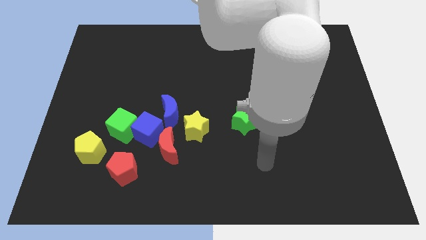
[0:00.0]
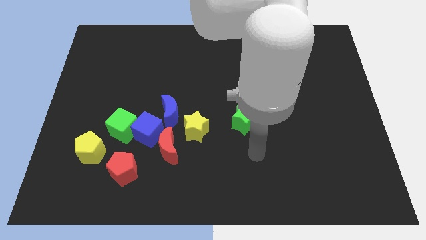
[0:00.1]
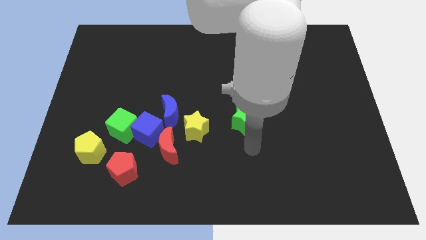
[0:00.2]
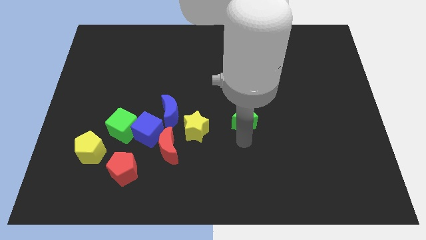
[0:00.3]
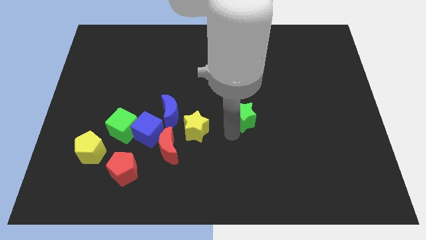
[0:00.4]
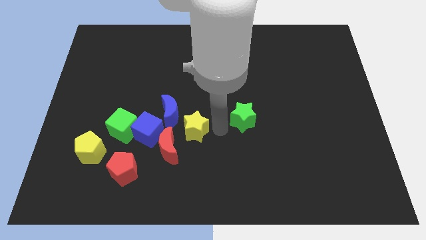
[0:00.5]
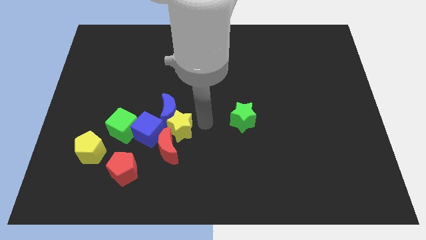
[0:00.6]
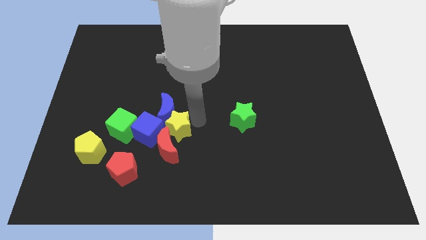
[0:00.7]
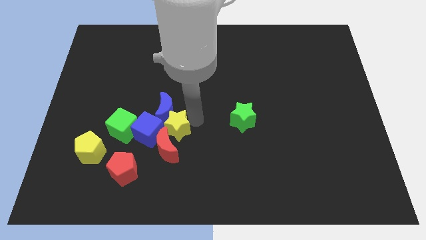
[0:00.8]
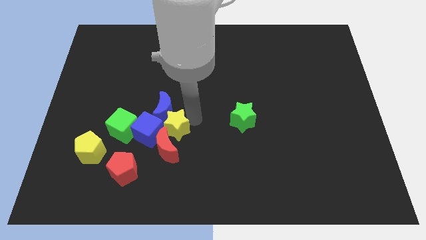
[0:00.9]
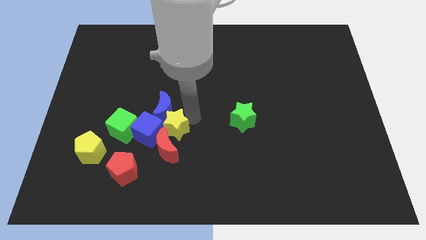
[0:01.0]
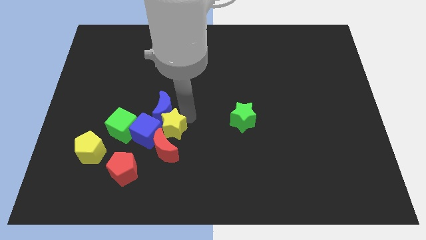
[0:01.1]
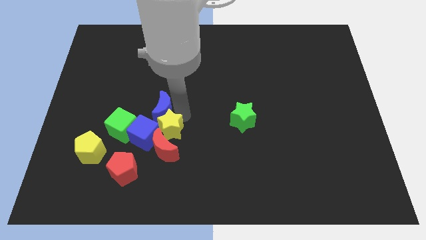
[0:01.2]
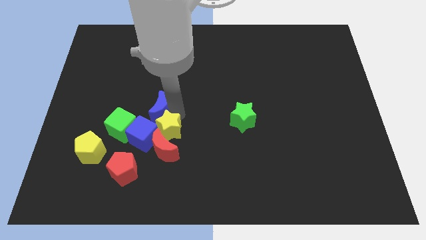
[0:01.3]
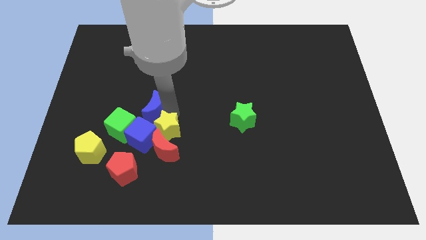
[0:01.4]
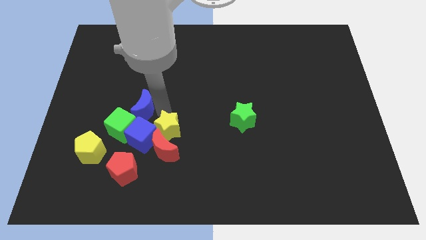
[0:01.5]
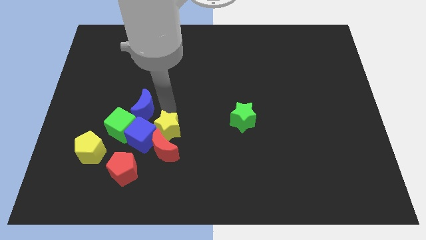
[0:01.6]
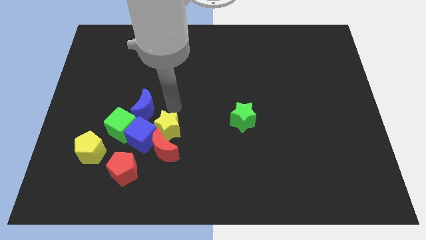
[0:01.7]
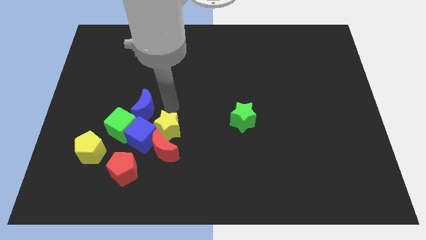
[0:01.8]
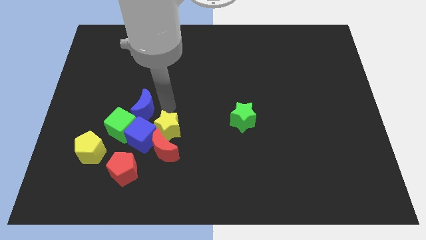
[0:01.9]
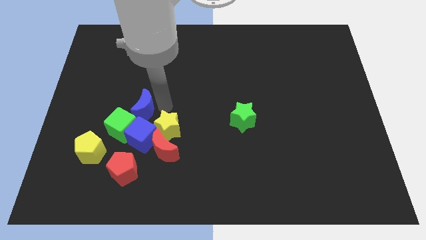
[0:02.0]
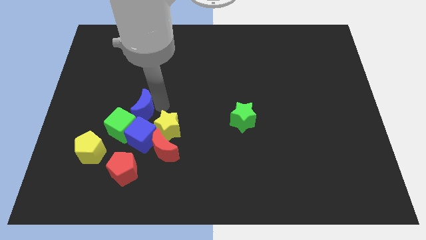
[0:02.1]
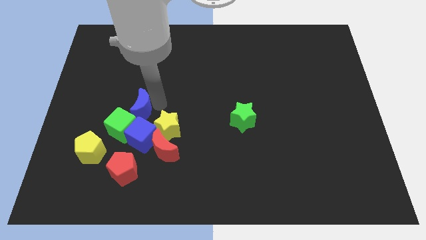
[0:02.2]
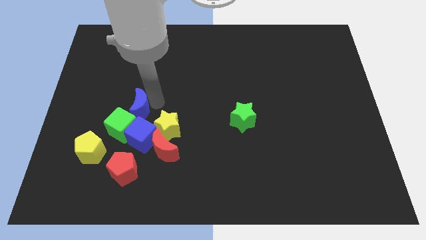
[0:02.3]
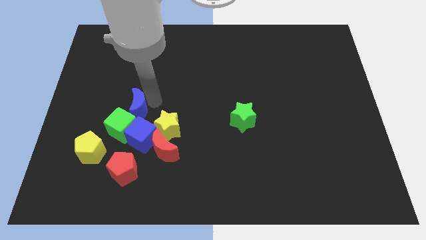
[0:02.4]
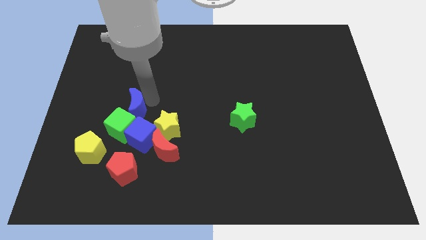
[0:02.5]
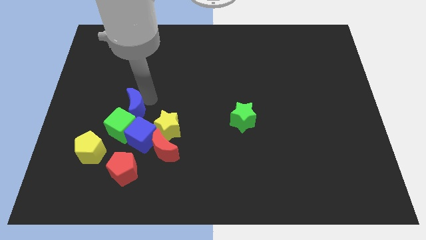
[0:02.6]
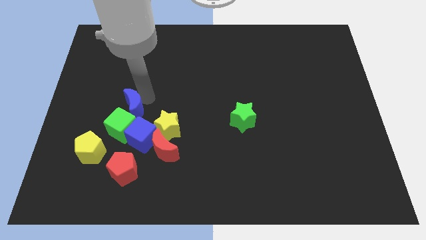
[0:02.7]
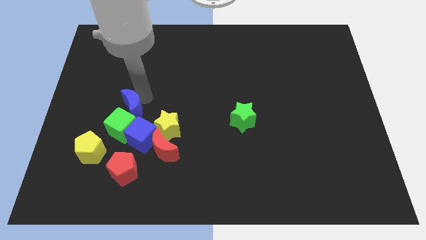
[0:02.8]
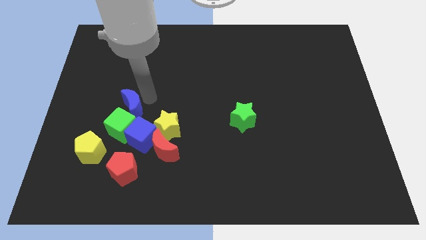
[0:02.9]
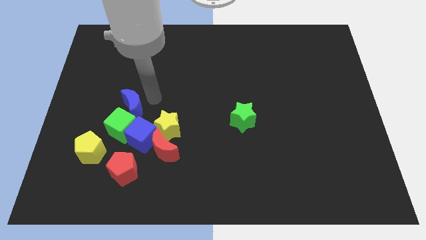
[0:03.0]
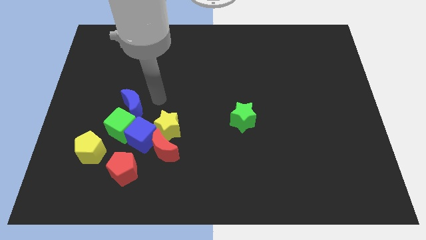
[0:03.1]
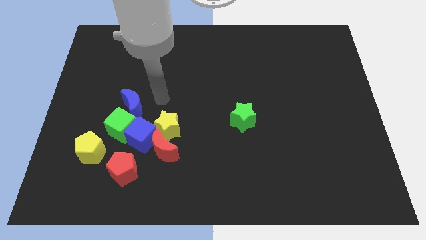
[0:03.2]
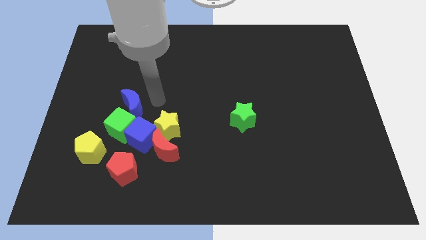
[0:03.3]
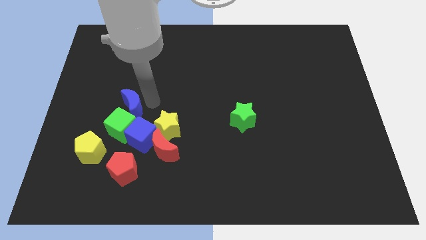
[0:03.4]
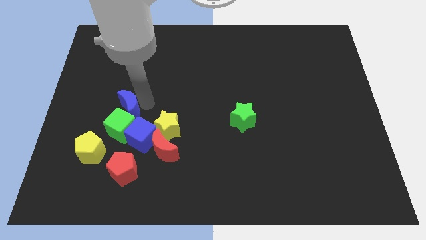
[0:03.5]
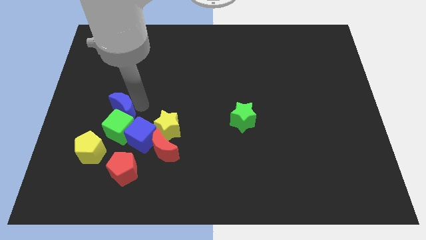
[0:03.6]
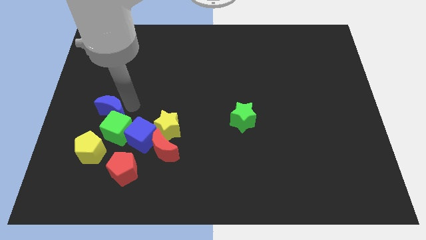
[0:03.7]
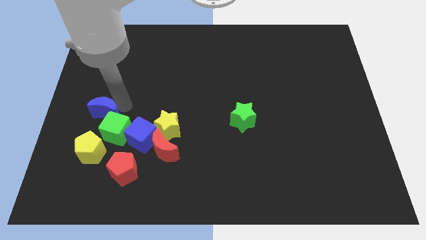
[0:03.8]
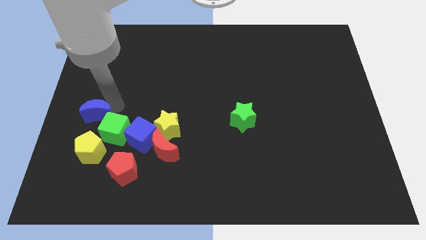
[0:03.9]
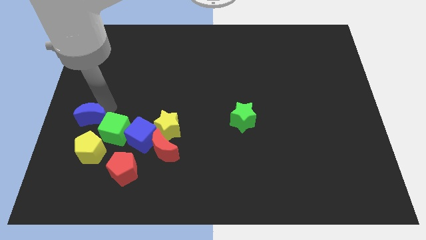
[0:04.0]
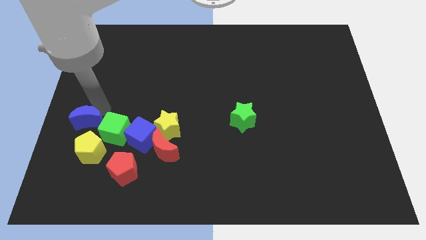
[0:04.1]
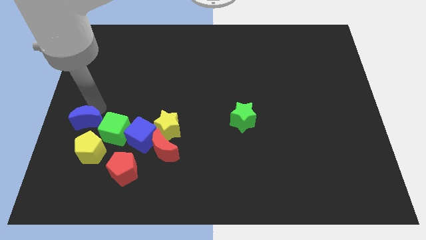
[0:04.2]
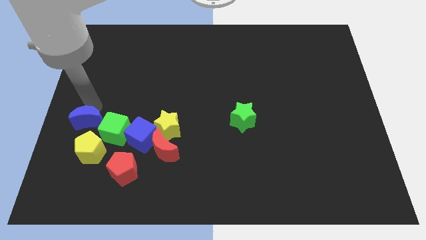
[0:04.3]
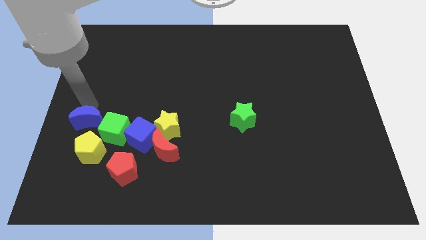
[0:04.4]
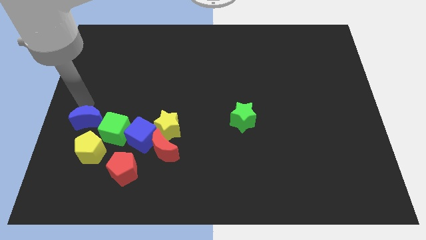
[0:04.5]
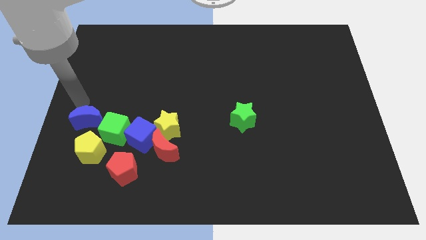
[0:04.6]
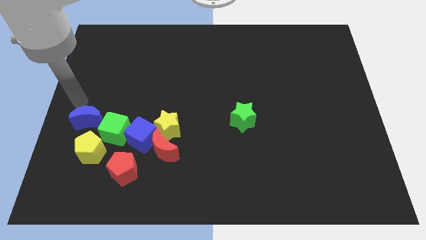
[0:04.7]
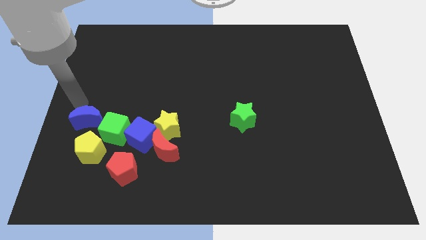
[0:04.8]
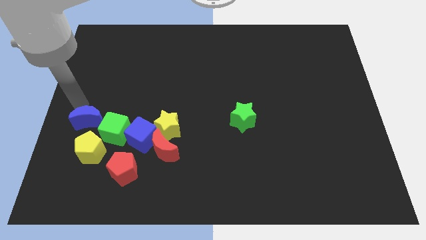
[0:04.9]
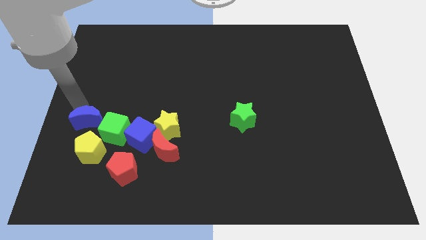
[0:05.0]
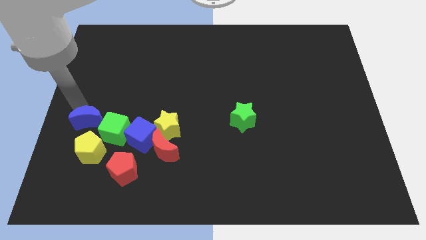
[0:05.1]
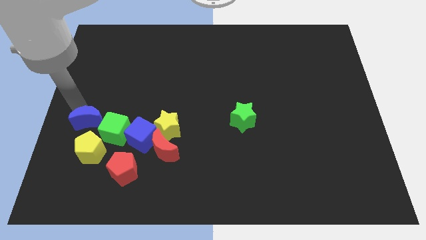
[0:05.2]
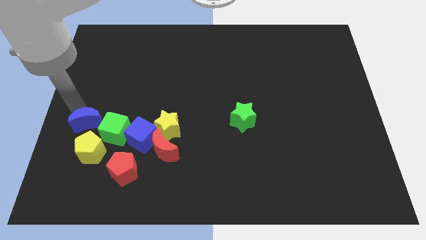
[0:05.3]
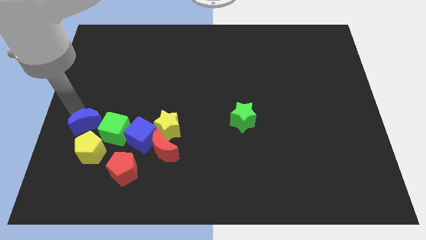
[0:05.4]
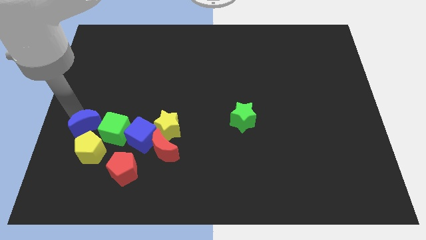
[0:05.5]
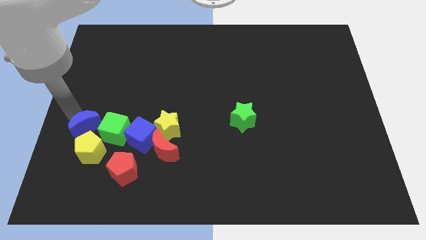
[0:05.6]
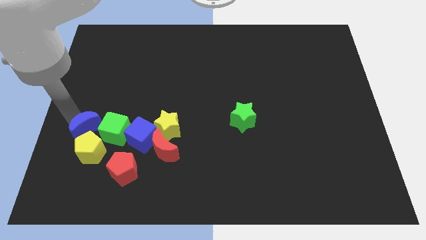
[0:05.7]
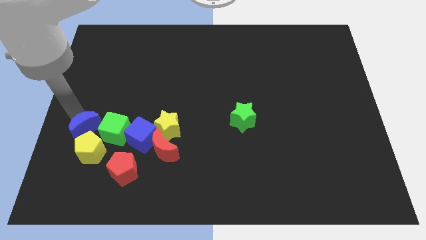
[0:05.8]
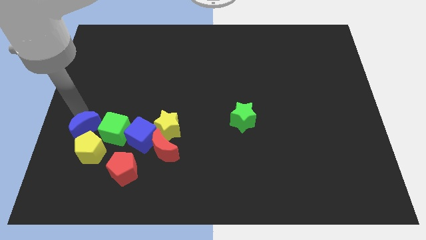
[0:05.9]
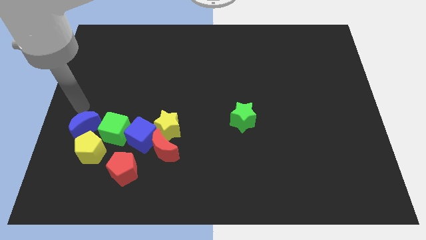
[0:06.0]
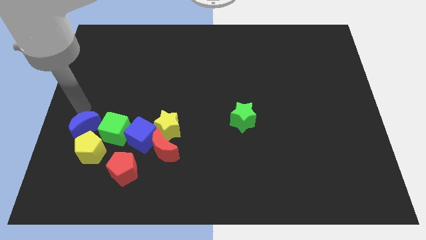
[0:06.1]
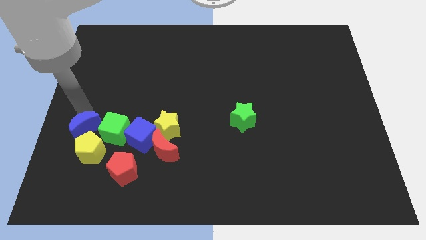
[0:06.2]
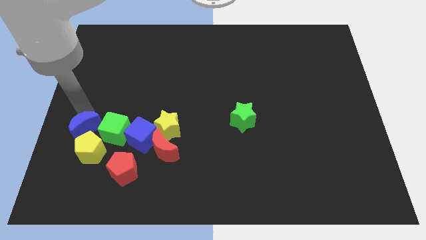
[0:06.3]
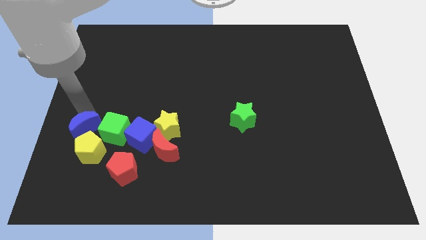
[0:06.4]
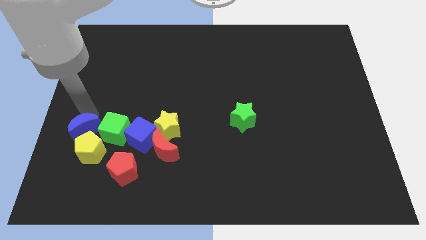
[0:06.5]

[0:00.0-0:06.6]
push the blue moon to the yellow pentagon

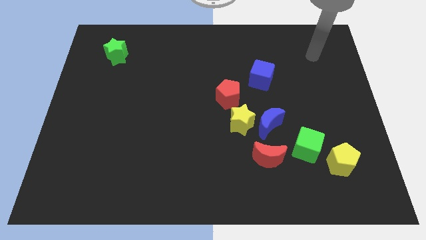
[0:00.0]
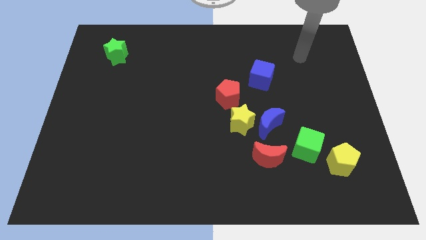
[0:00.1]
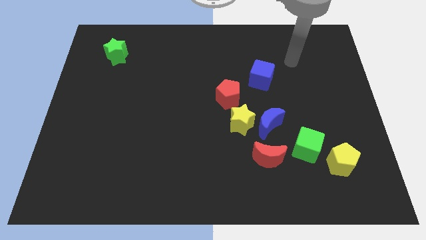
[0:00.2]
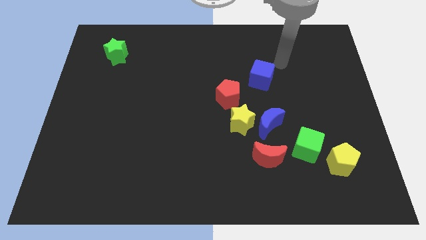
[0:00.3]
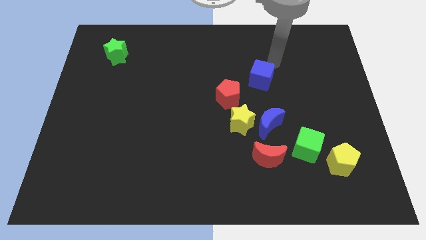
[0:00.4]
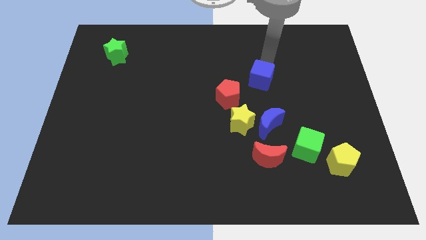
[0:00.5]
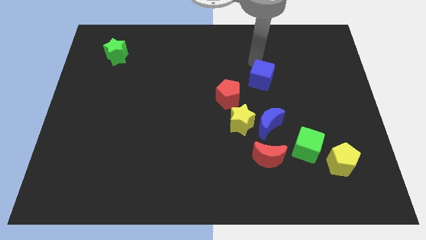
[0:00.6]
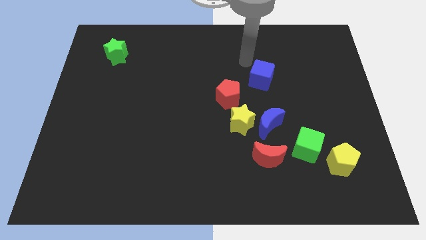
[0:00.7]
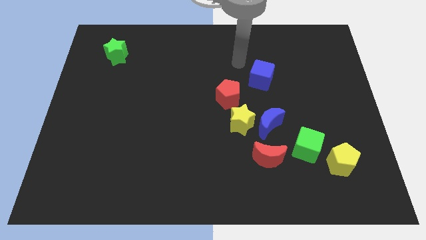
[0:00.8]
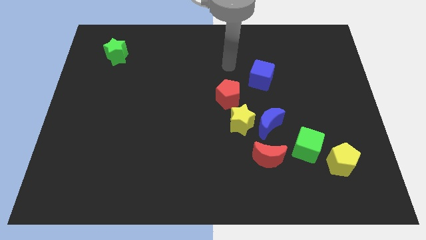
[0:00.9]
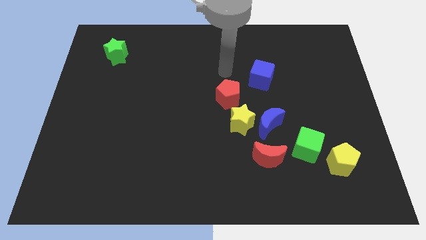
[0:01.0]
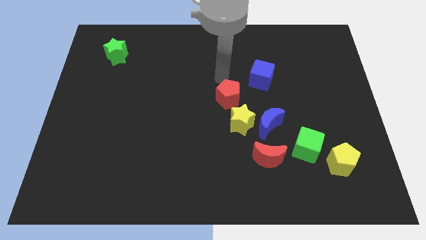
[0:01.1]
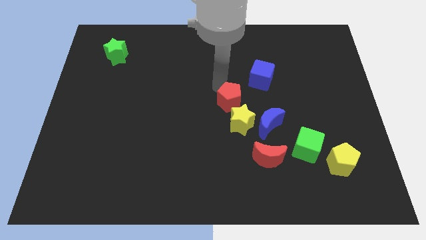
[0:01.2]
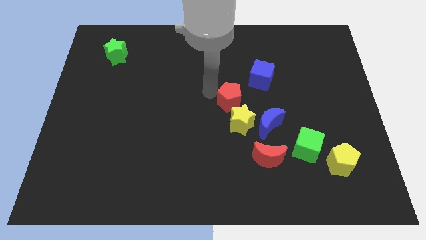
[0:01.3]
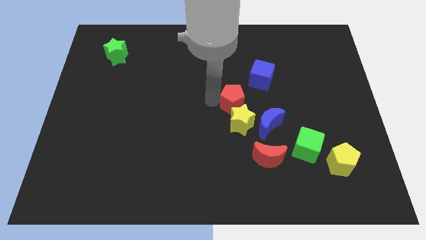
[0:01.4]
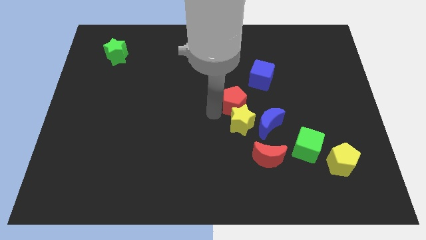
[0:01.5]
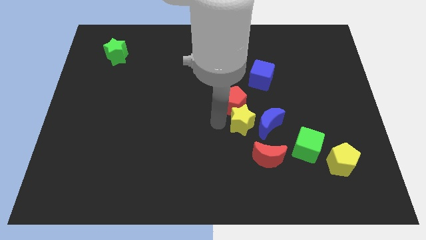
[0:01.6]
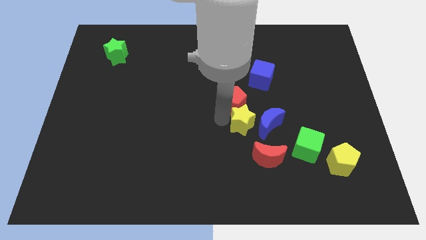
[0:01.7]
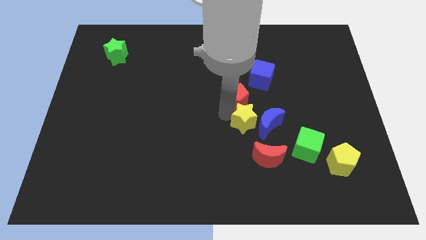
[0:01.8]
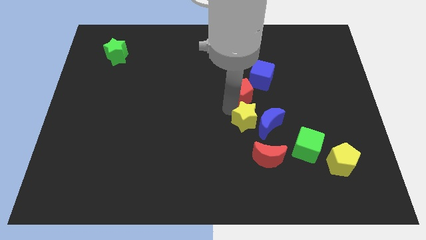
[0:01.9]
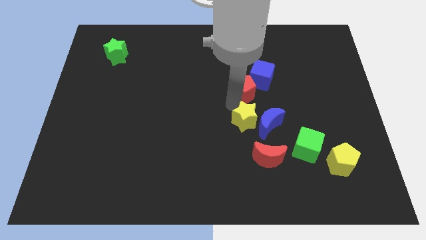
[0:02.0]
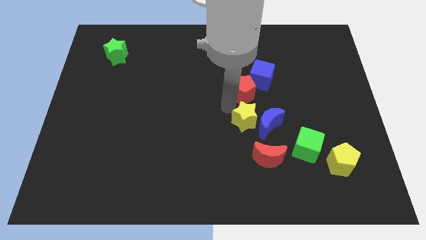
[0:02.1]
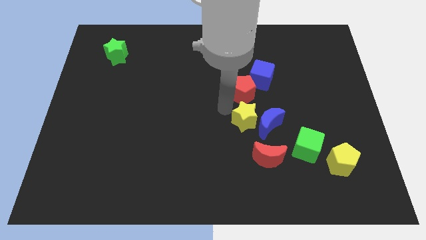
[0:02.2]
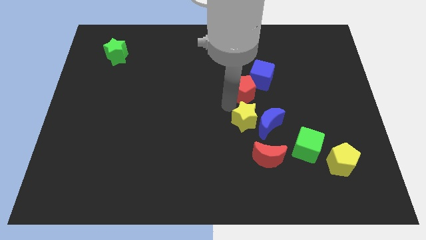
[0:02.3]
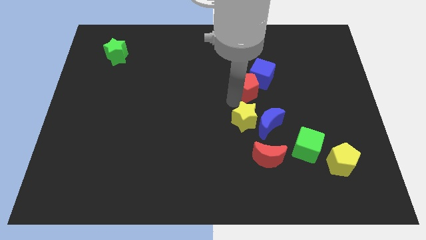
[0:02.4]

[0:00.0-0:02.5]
slide the red pentagon towards the blue cube
